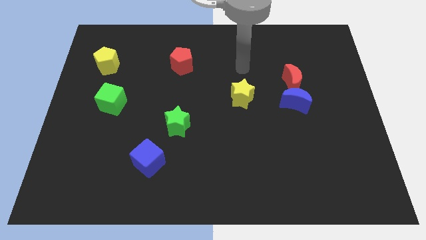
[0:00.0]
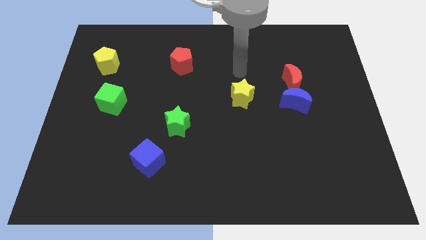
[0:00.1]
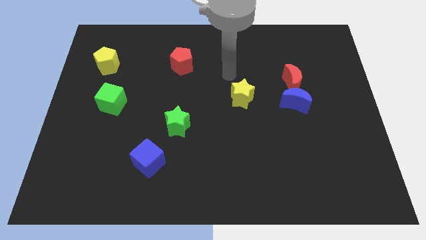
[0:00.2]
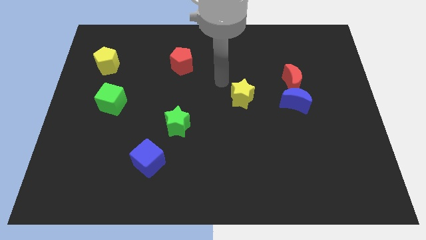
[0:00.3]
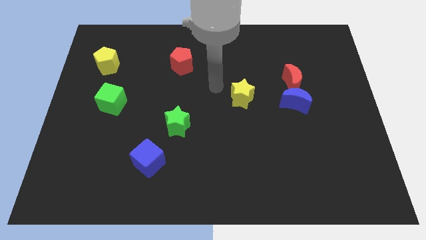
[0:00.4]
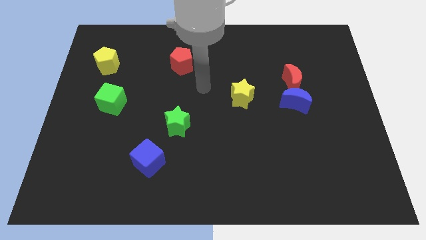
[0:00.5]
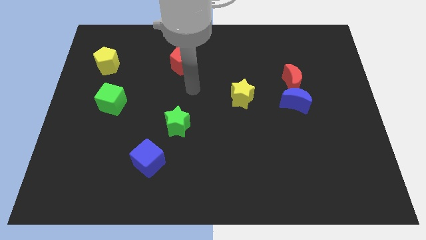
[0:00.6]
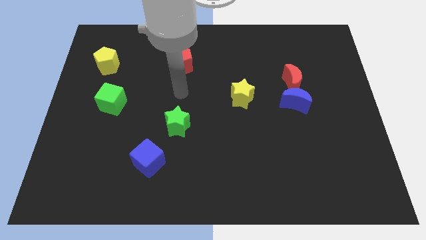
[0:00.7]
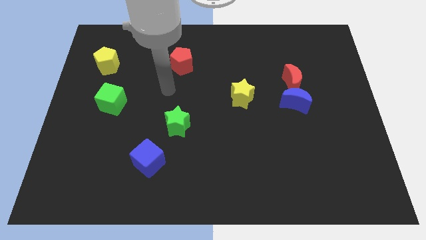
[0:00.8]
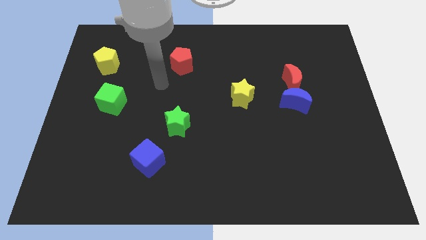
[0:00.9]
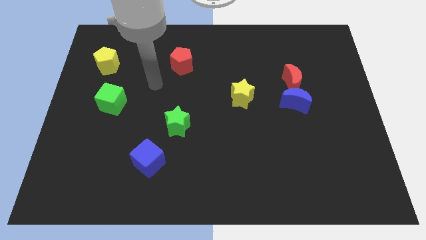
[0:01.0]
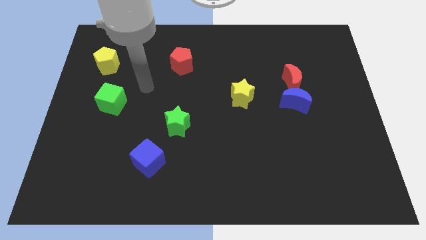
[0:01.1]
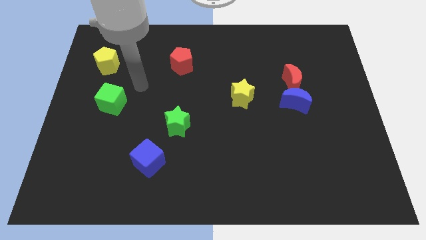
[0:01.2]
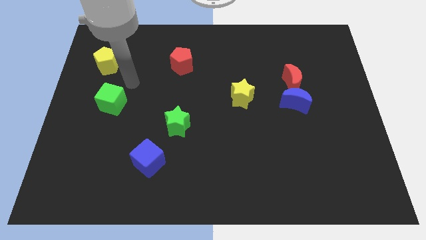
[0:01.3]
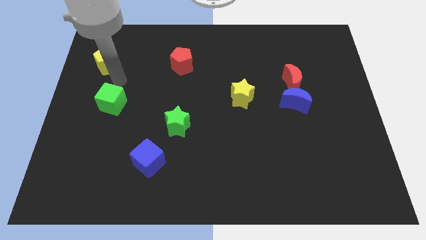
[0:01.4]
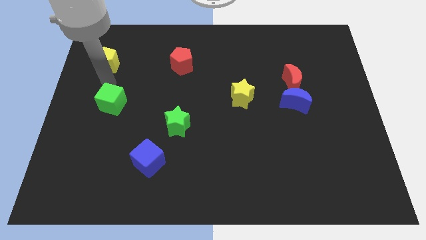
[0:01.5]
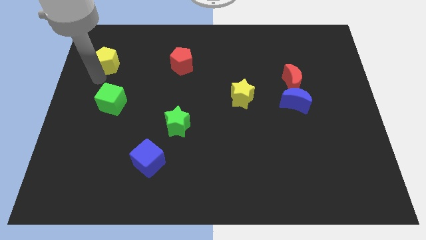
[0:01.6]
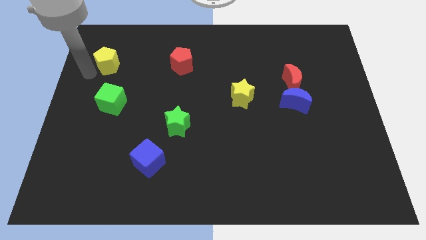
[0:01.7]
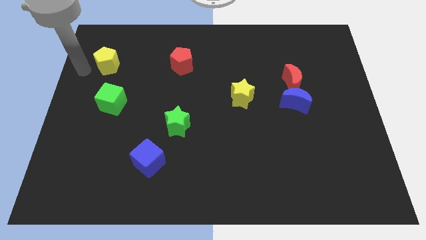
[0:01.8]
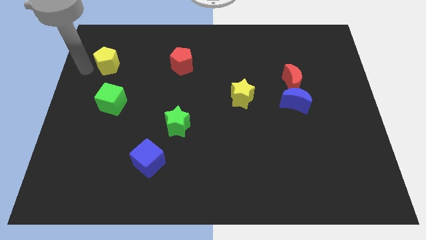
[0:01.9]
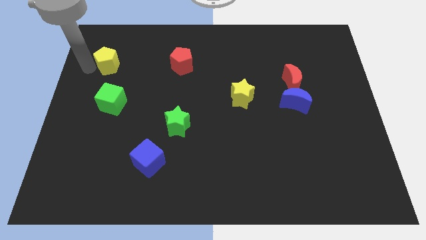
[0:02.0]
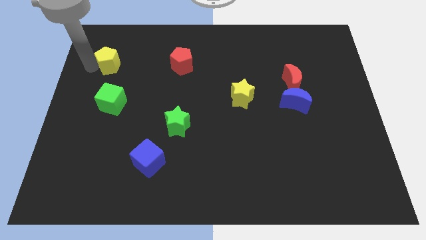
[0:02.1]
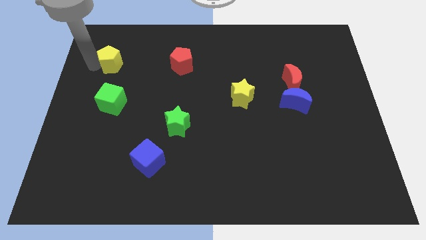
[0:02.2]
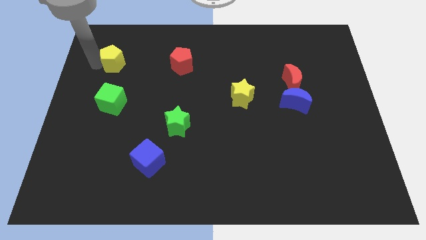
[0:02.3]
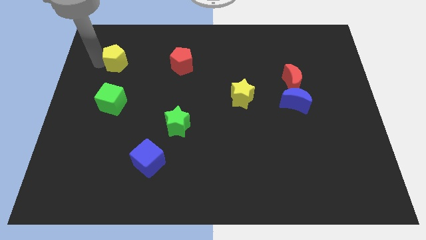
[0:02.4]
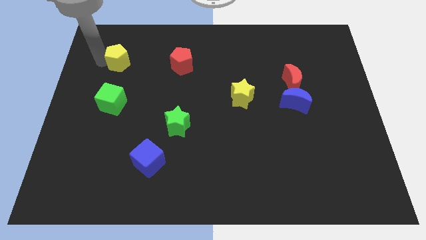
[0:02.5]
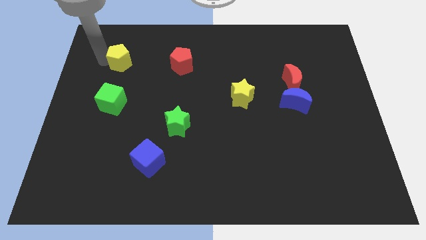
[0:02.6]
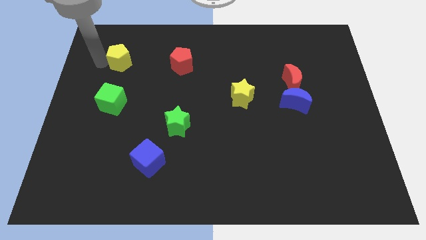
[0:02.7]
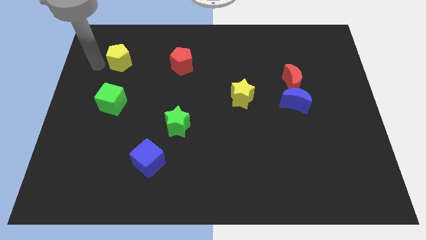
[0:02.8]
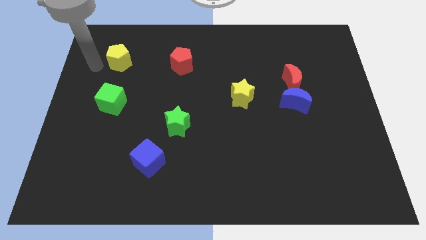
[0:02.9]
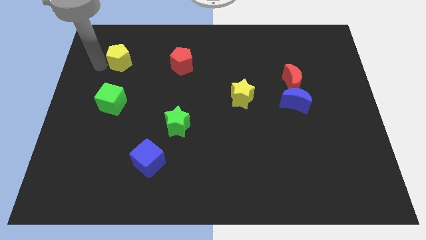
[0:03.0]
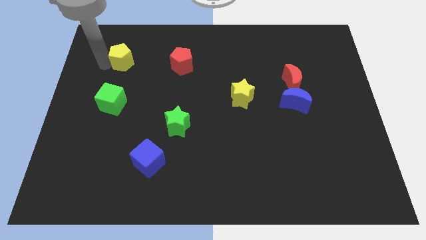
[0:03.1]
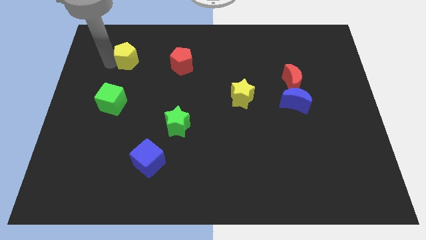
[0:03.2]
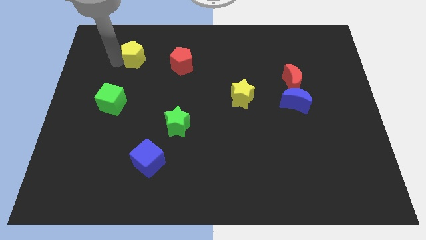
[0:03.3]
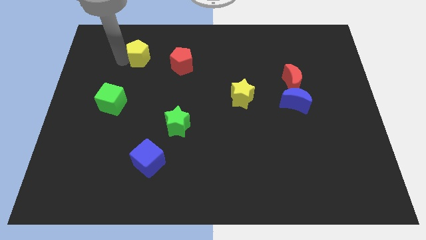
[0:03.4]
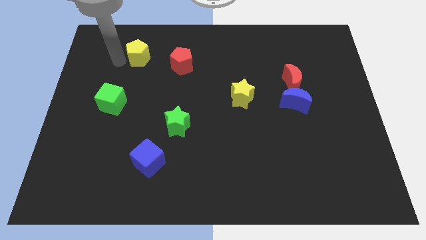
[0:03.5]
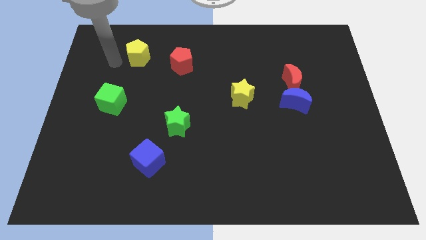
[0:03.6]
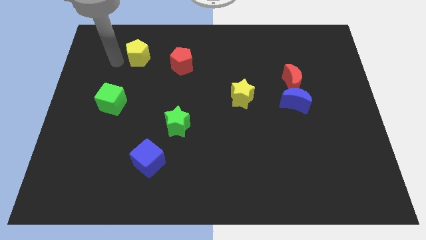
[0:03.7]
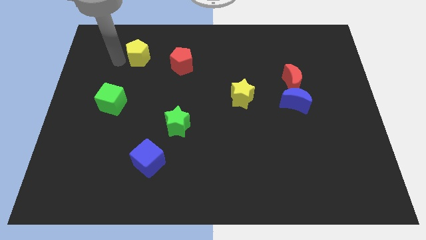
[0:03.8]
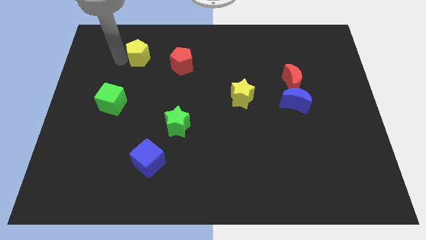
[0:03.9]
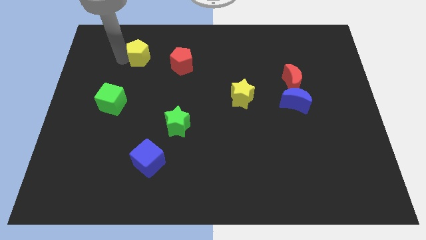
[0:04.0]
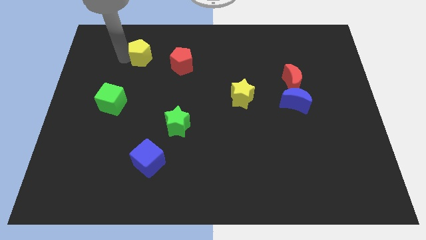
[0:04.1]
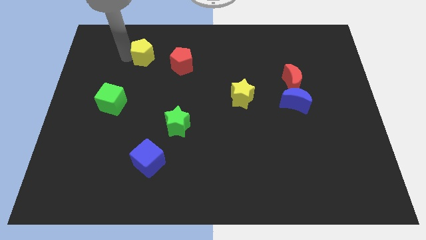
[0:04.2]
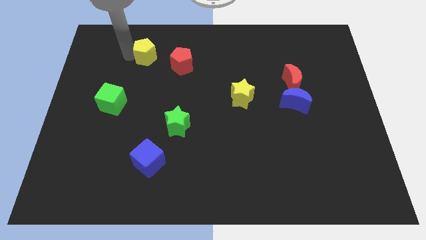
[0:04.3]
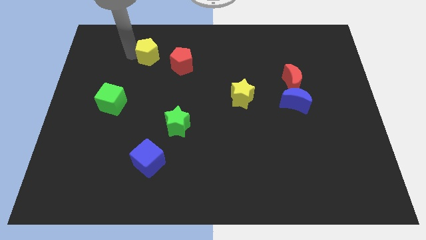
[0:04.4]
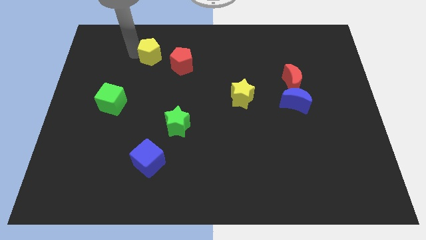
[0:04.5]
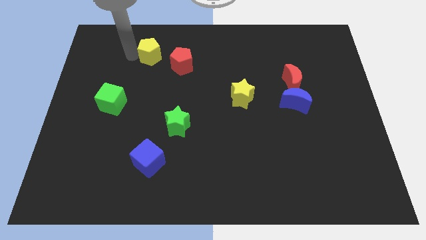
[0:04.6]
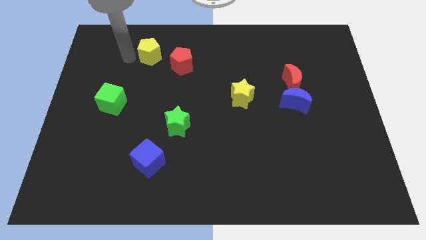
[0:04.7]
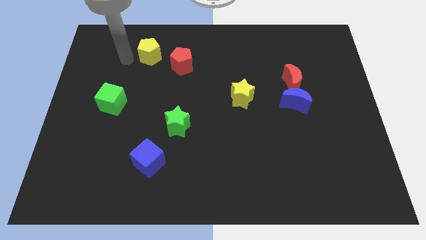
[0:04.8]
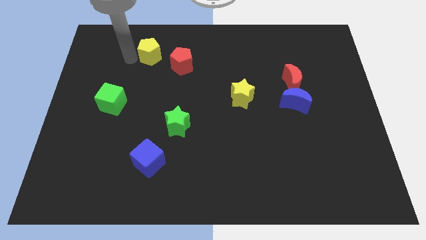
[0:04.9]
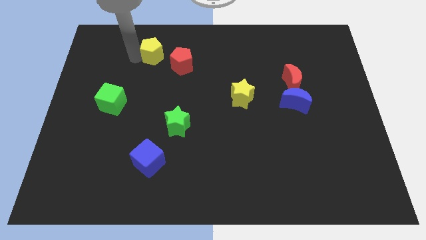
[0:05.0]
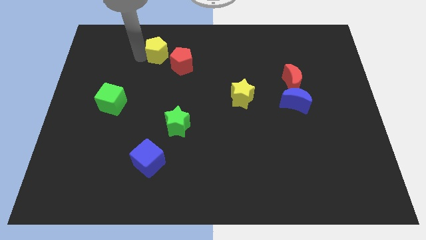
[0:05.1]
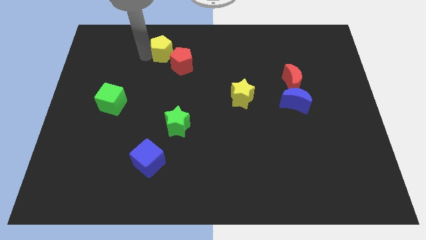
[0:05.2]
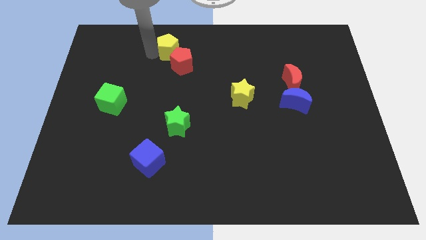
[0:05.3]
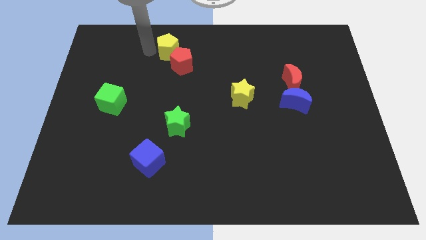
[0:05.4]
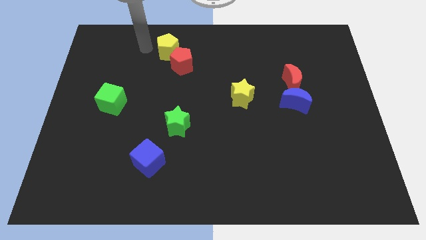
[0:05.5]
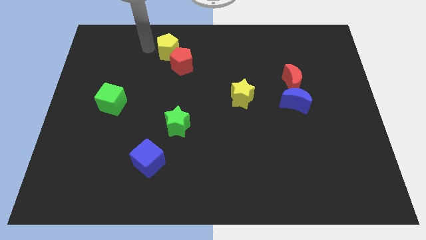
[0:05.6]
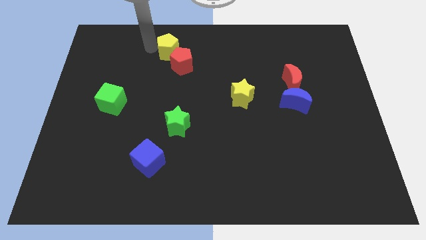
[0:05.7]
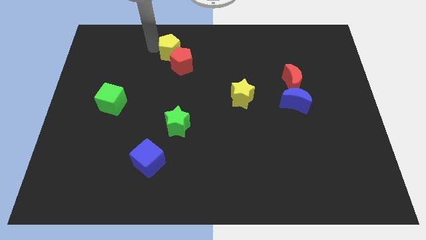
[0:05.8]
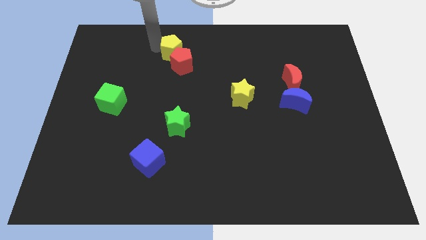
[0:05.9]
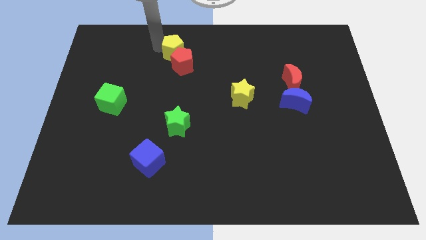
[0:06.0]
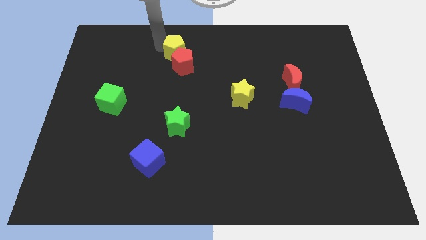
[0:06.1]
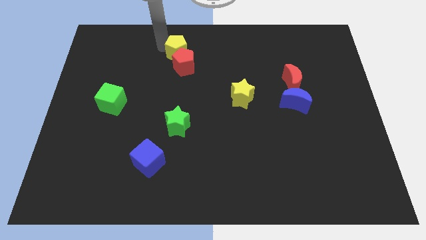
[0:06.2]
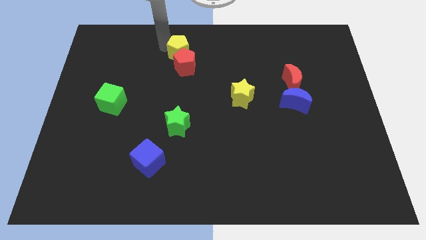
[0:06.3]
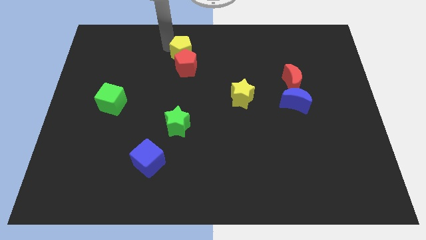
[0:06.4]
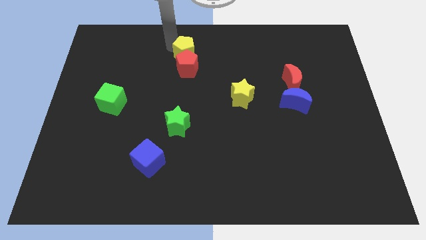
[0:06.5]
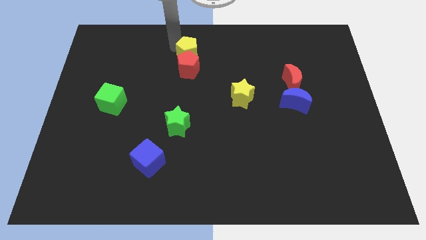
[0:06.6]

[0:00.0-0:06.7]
slide the yellow pentagon right

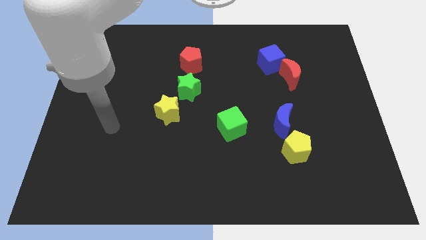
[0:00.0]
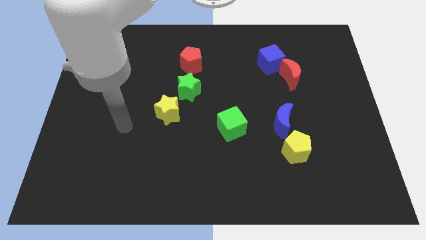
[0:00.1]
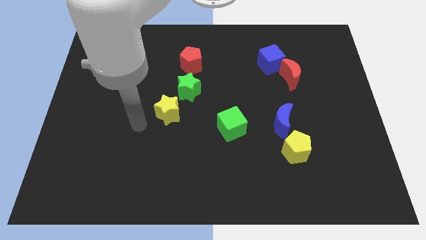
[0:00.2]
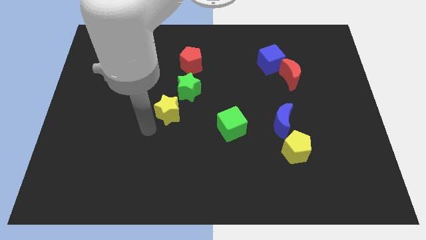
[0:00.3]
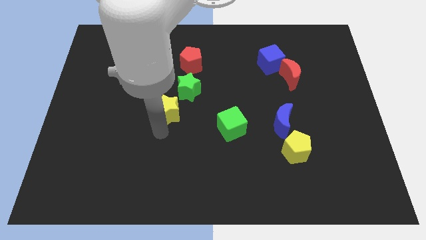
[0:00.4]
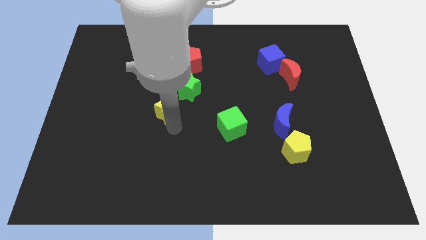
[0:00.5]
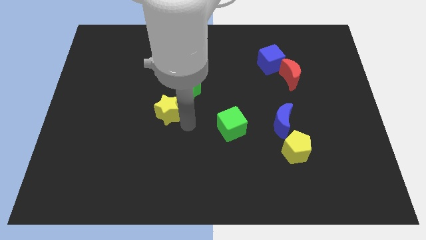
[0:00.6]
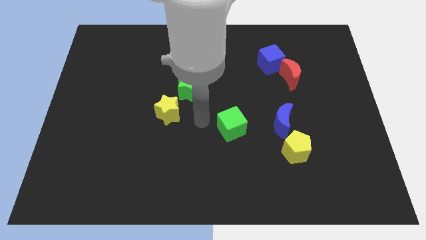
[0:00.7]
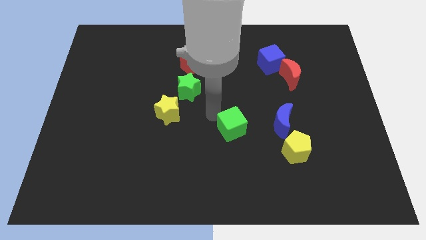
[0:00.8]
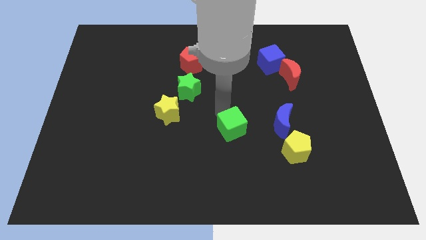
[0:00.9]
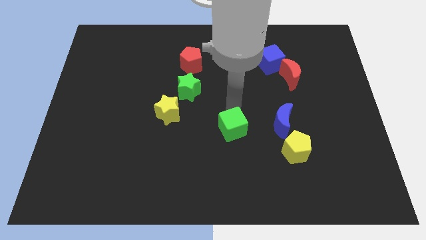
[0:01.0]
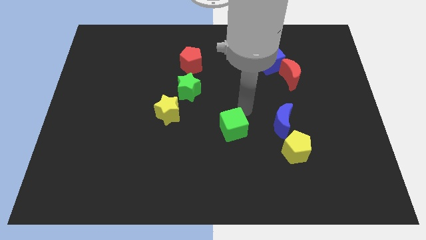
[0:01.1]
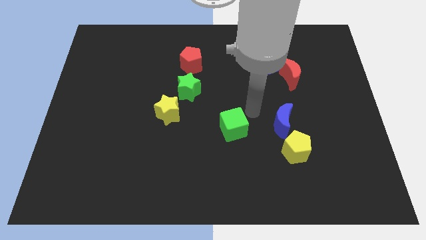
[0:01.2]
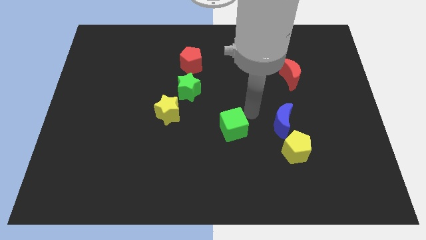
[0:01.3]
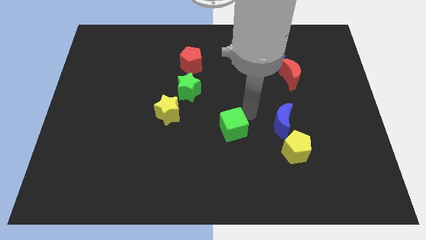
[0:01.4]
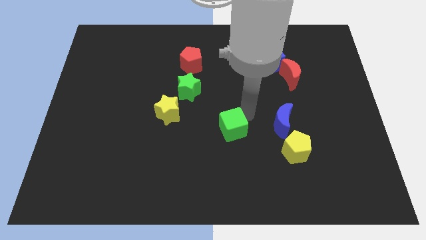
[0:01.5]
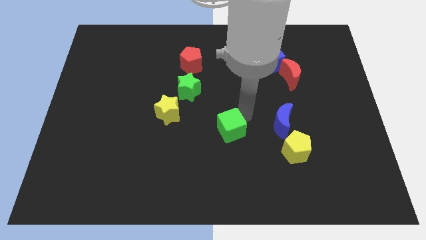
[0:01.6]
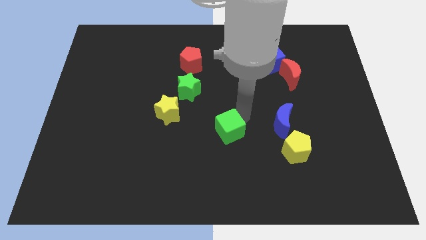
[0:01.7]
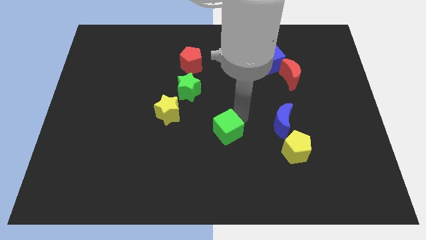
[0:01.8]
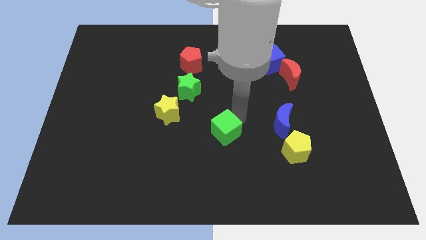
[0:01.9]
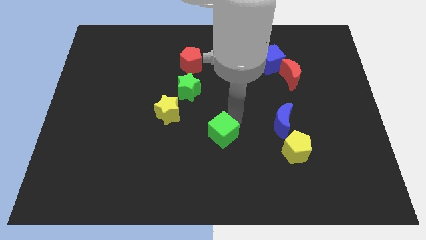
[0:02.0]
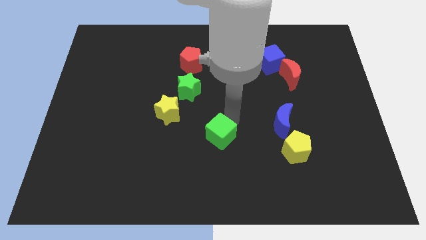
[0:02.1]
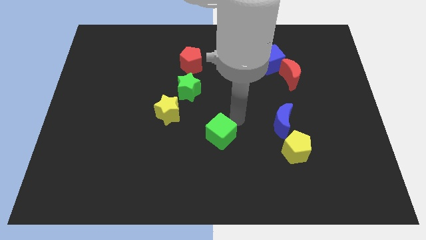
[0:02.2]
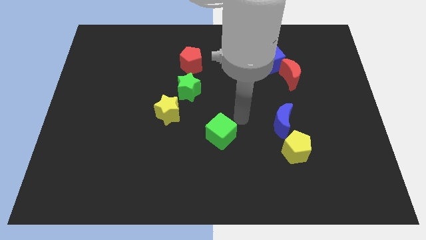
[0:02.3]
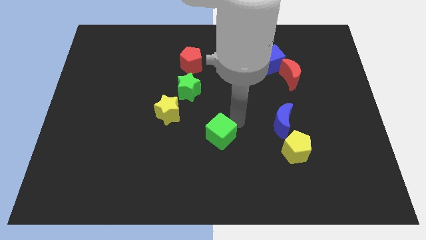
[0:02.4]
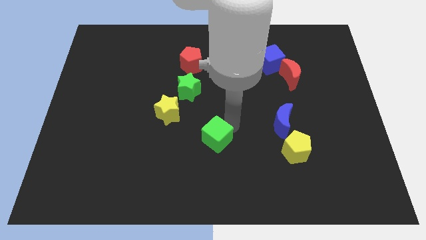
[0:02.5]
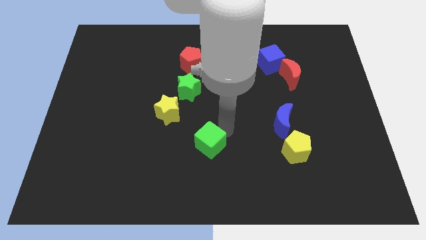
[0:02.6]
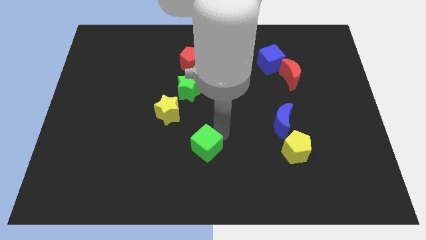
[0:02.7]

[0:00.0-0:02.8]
slightly move the green cube downwards and then left
